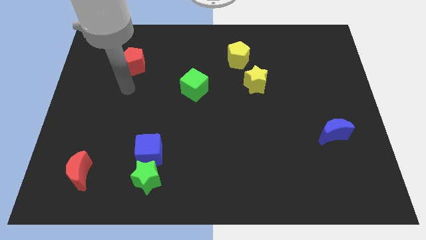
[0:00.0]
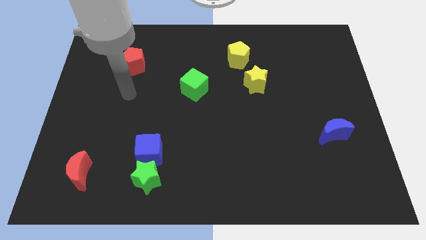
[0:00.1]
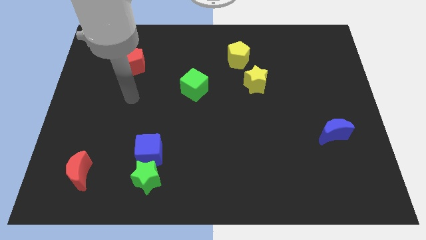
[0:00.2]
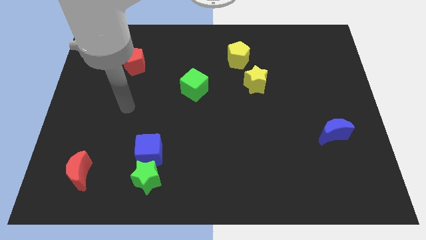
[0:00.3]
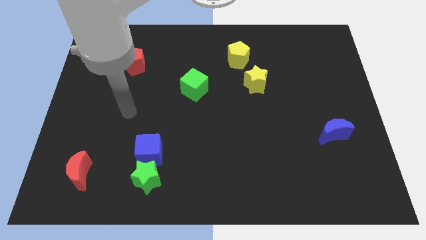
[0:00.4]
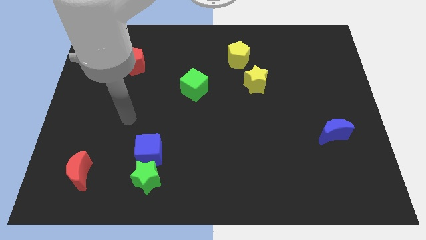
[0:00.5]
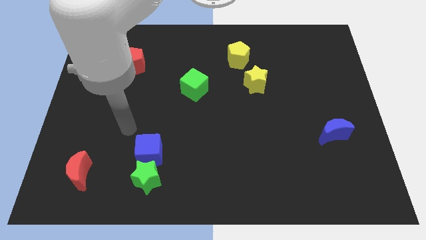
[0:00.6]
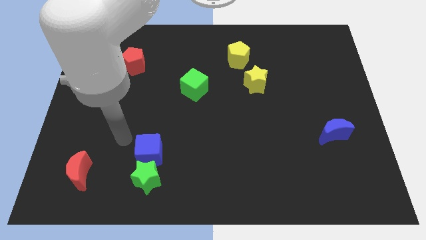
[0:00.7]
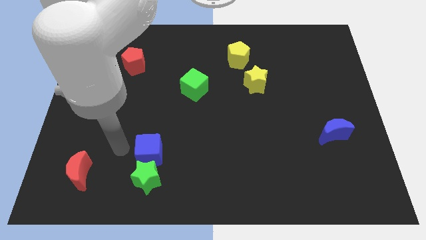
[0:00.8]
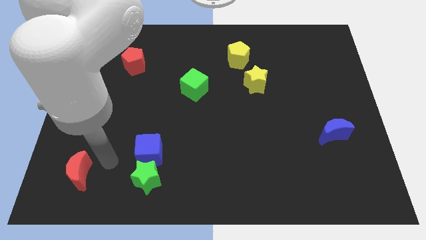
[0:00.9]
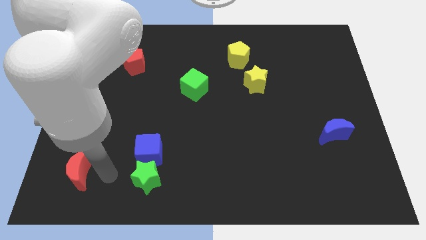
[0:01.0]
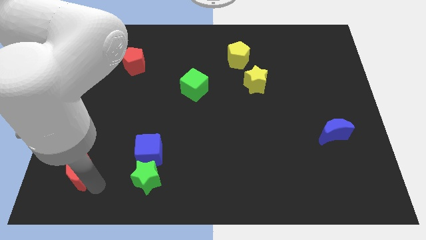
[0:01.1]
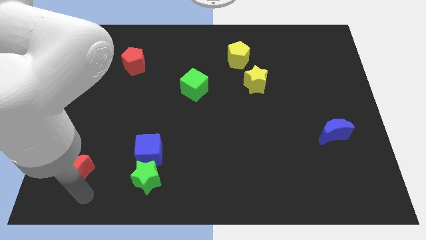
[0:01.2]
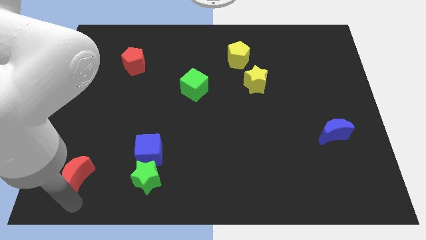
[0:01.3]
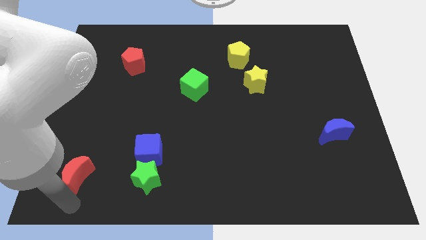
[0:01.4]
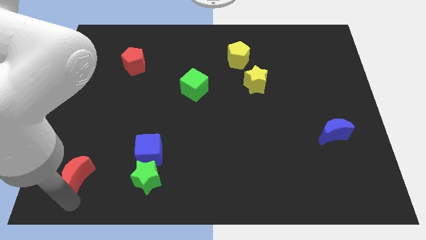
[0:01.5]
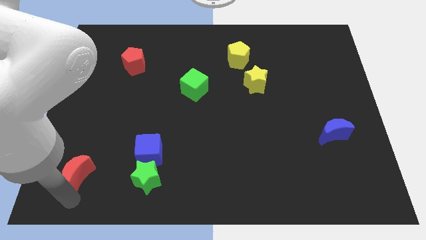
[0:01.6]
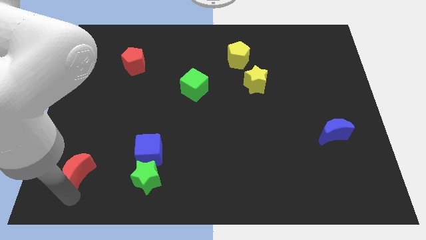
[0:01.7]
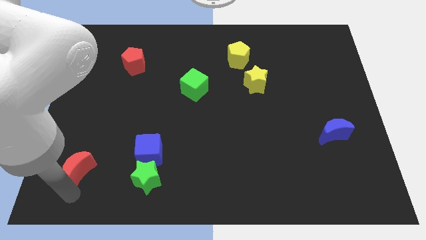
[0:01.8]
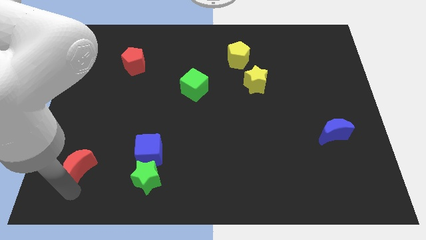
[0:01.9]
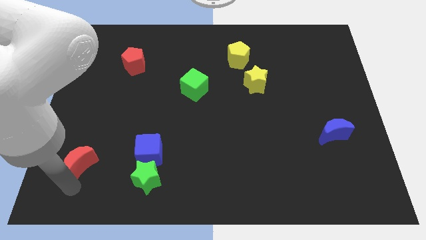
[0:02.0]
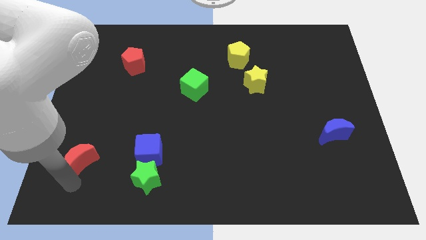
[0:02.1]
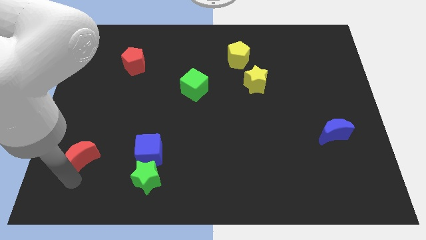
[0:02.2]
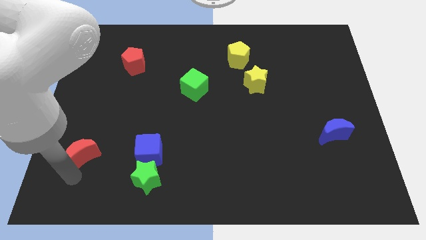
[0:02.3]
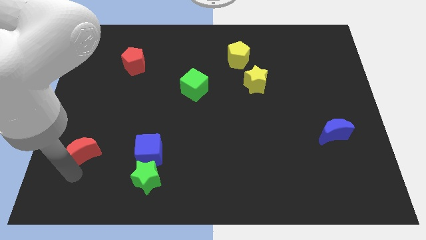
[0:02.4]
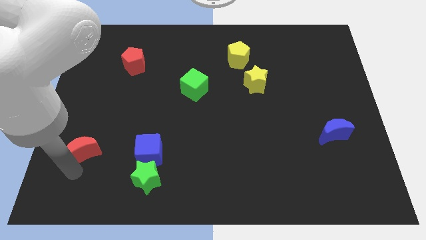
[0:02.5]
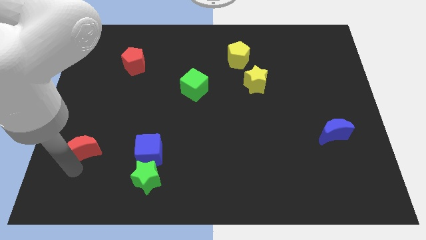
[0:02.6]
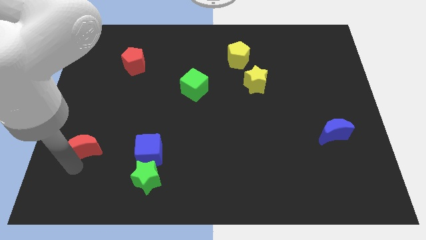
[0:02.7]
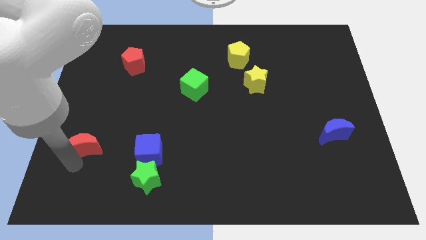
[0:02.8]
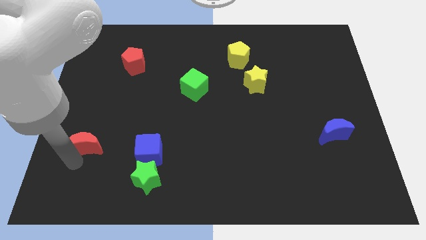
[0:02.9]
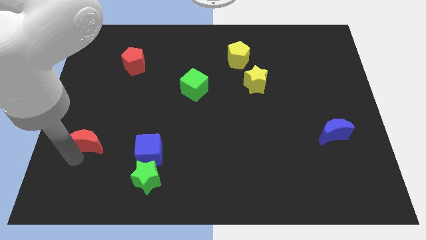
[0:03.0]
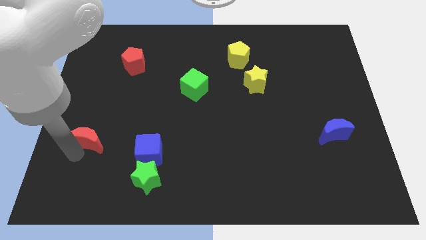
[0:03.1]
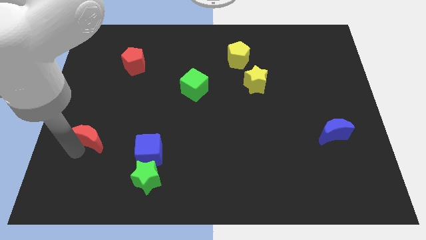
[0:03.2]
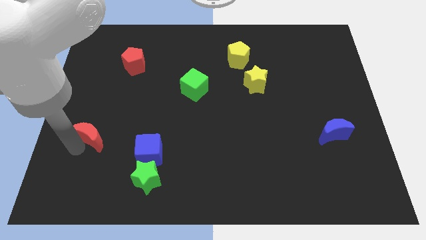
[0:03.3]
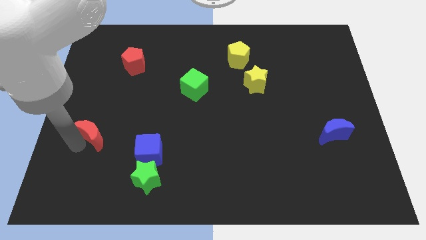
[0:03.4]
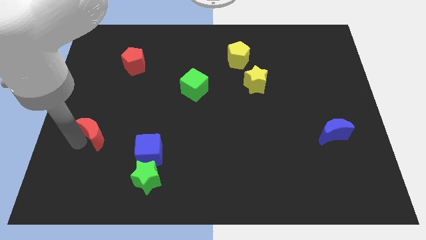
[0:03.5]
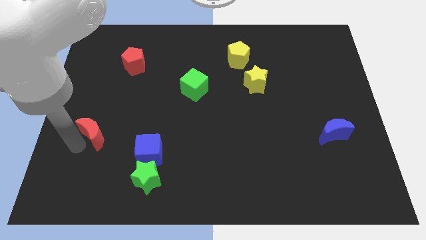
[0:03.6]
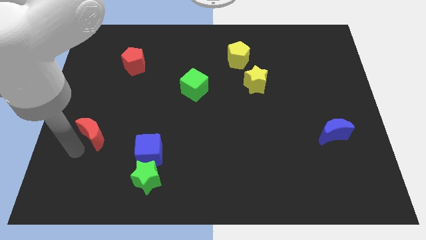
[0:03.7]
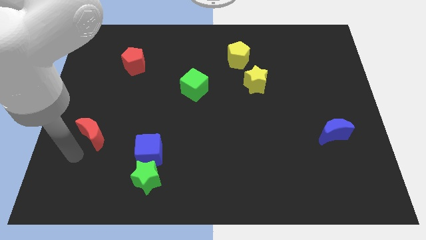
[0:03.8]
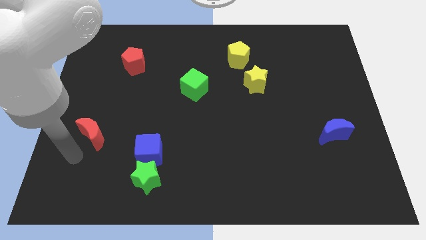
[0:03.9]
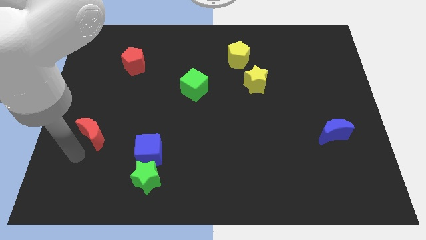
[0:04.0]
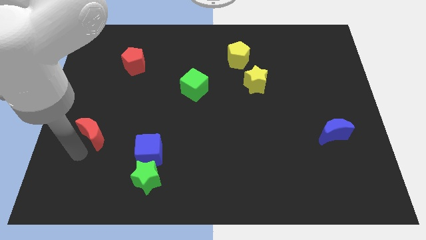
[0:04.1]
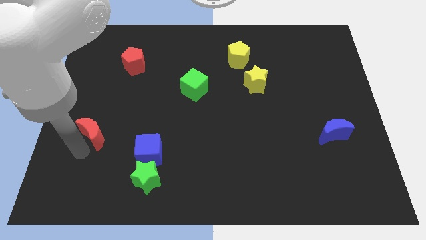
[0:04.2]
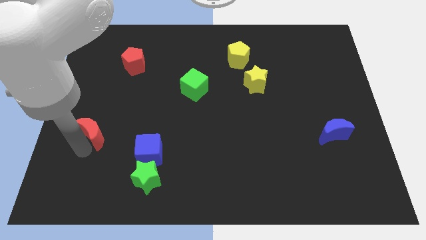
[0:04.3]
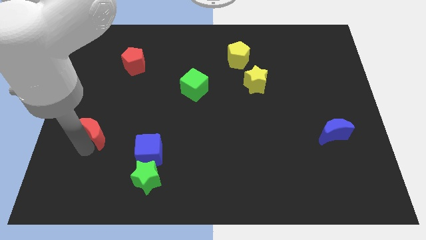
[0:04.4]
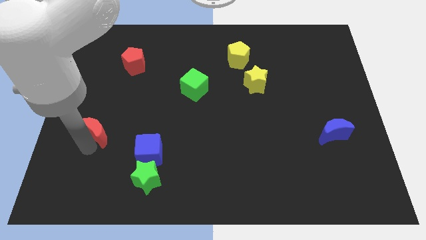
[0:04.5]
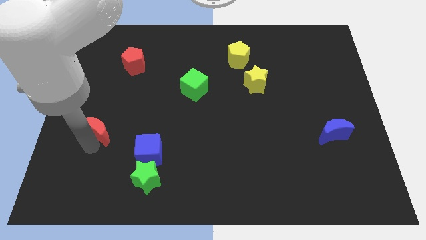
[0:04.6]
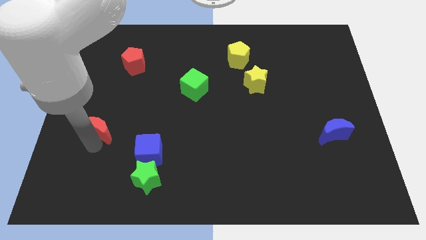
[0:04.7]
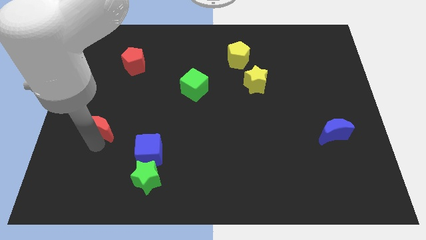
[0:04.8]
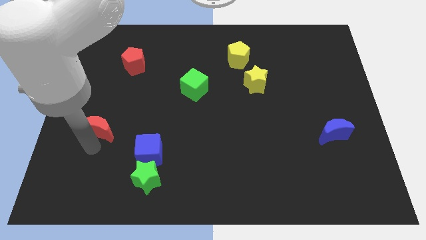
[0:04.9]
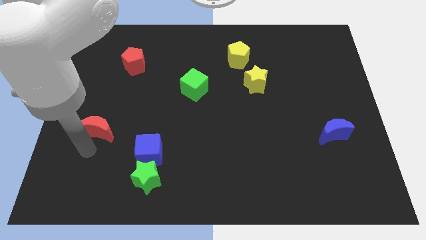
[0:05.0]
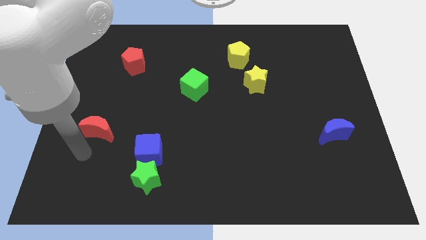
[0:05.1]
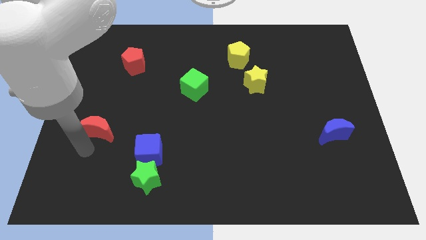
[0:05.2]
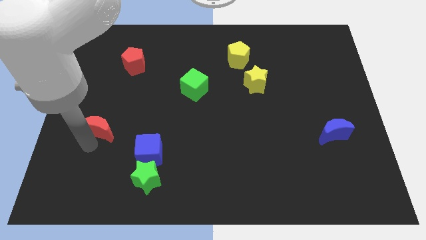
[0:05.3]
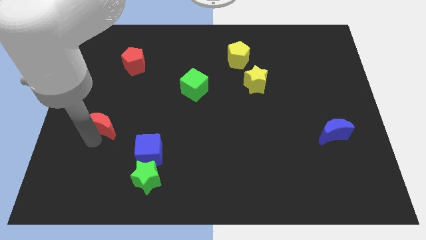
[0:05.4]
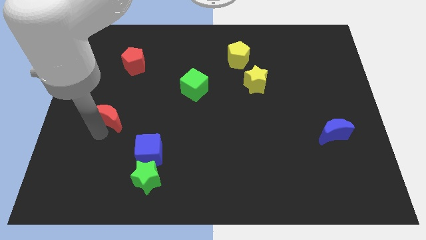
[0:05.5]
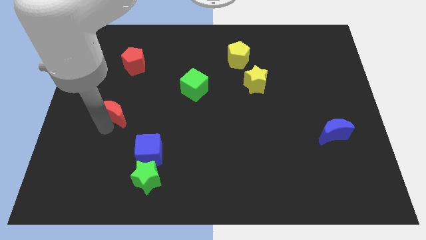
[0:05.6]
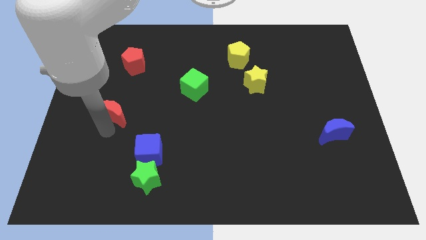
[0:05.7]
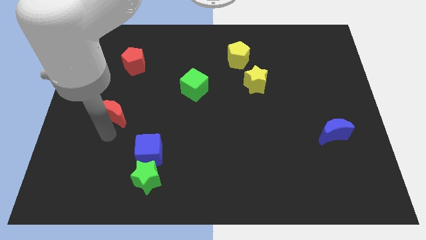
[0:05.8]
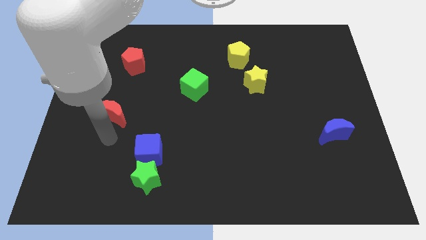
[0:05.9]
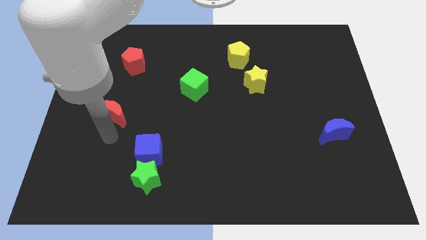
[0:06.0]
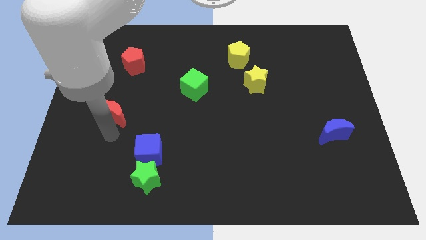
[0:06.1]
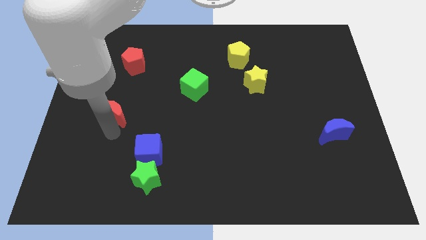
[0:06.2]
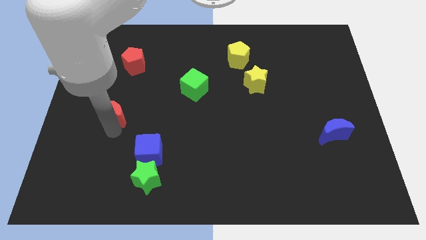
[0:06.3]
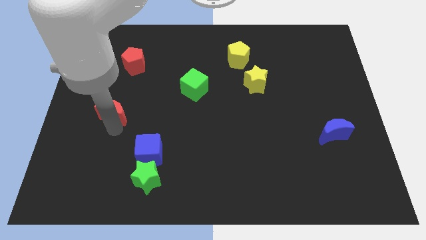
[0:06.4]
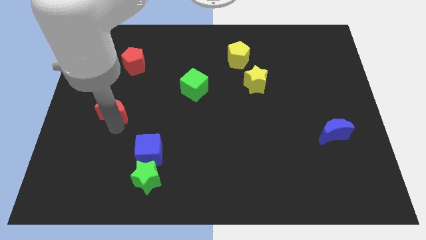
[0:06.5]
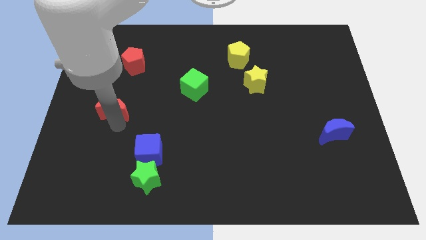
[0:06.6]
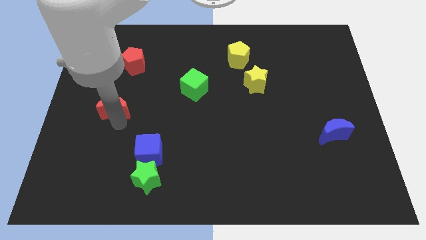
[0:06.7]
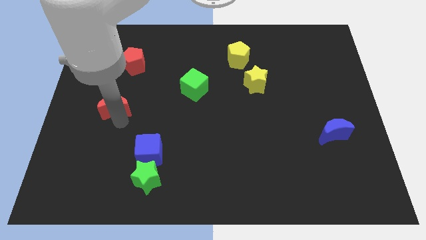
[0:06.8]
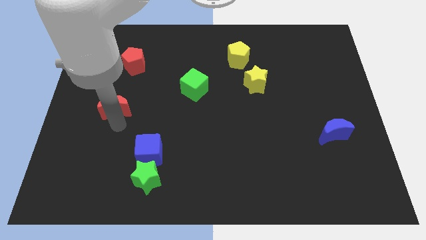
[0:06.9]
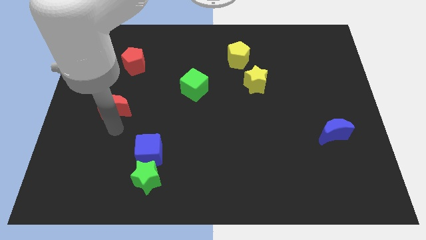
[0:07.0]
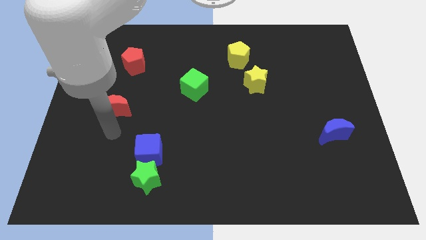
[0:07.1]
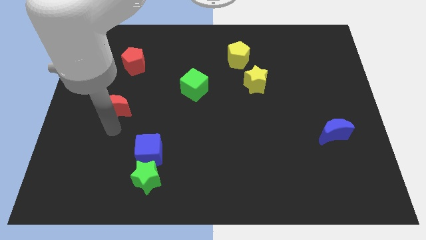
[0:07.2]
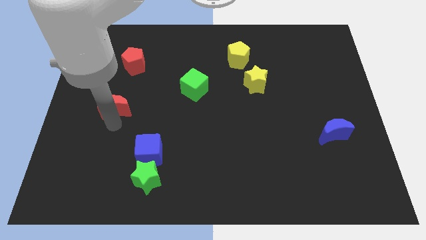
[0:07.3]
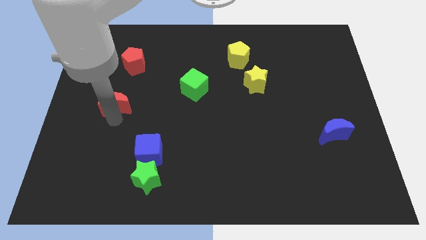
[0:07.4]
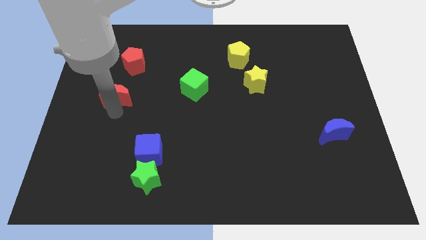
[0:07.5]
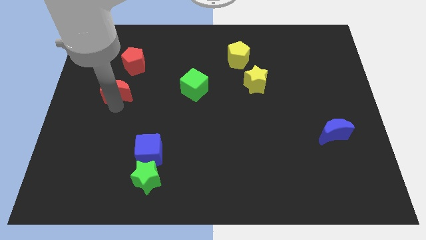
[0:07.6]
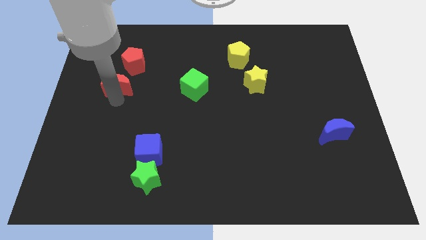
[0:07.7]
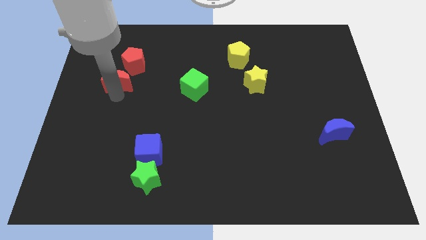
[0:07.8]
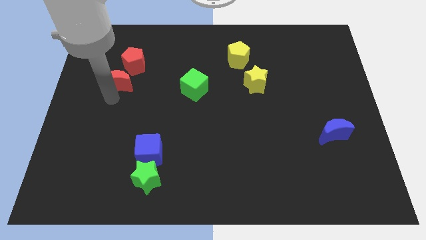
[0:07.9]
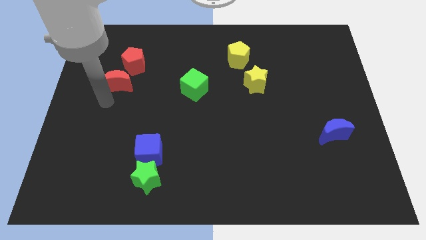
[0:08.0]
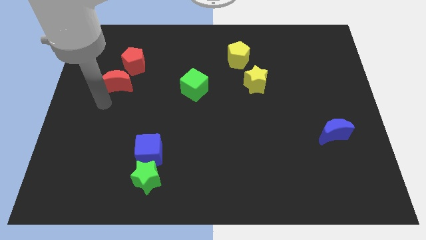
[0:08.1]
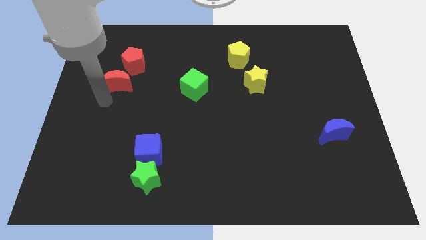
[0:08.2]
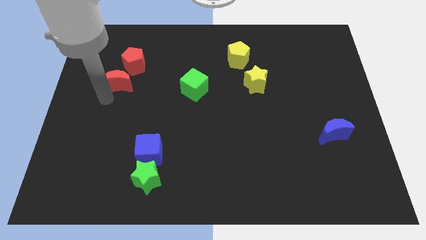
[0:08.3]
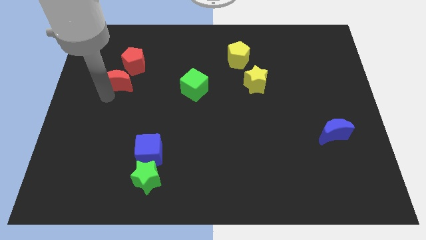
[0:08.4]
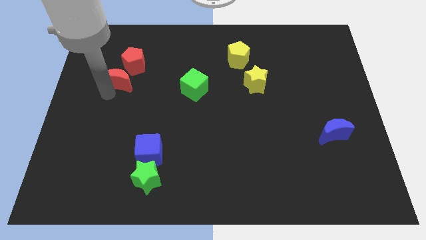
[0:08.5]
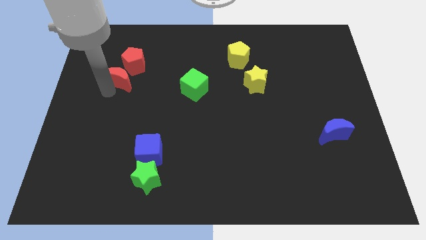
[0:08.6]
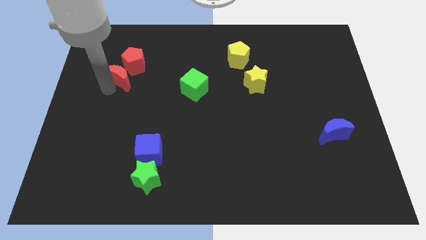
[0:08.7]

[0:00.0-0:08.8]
slide the red moon close to the red pentagon
